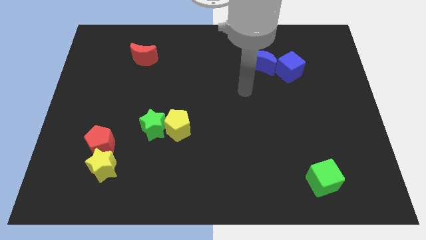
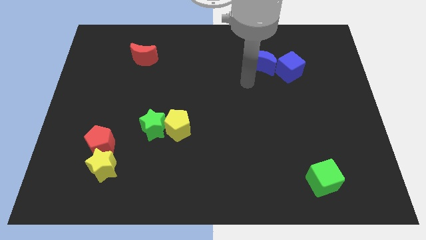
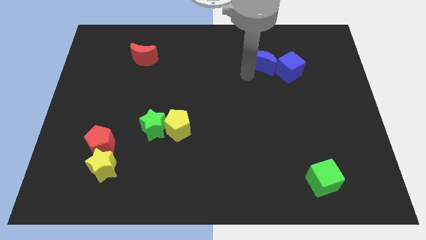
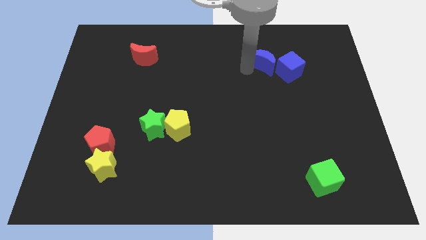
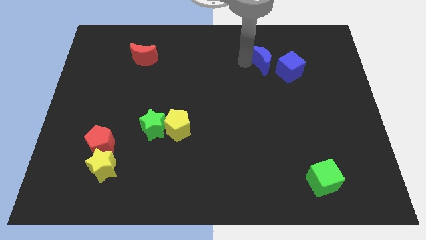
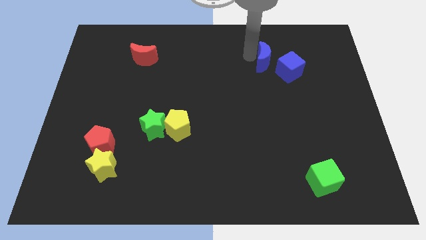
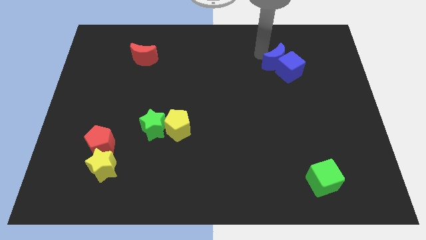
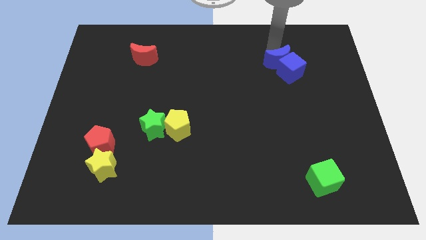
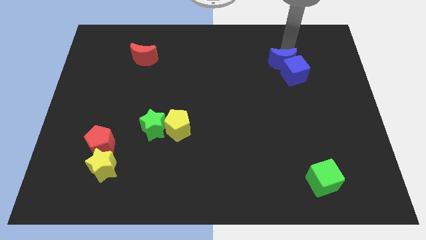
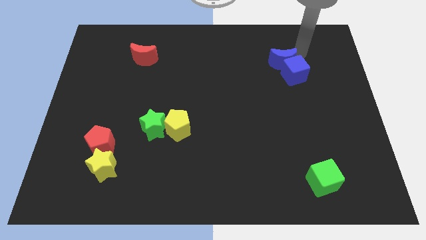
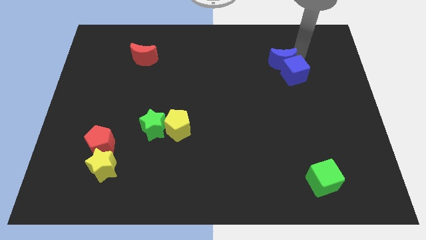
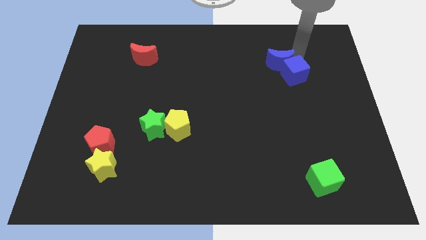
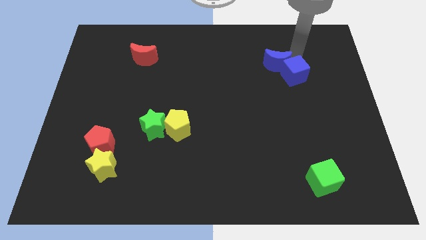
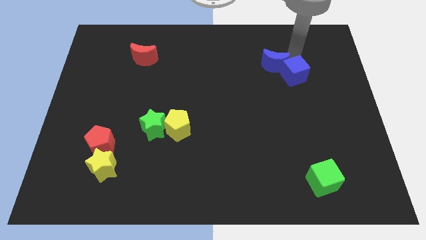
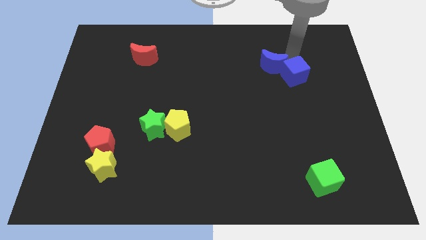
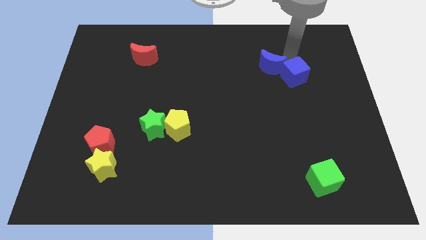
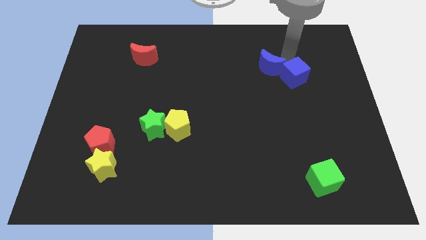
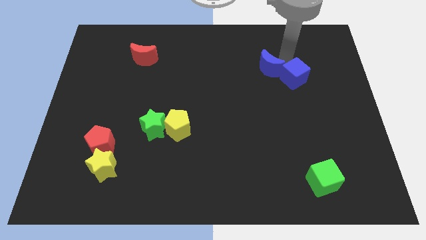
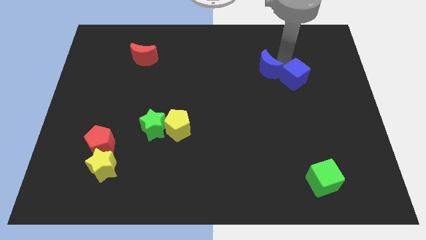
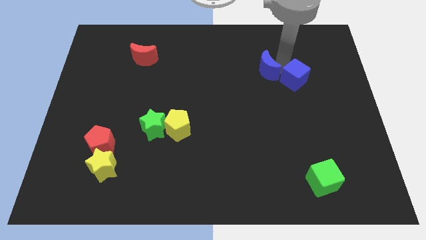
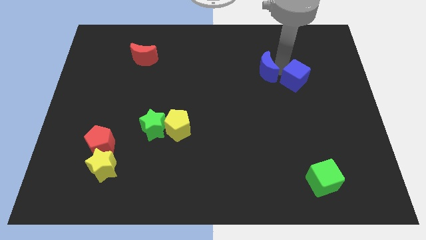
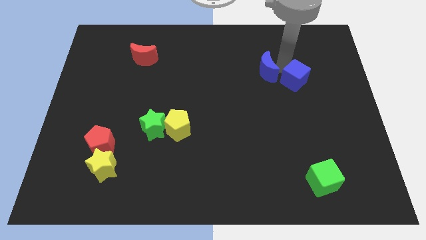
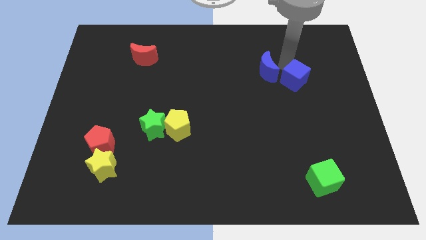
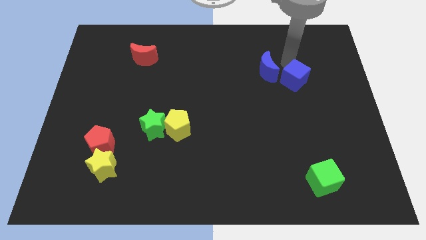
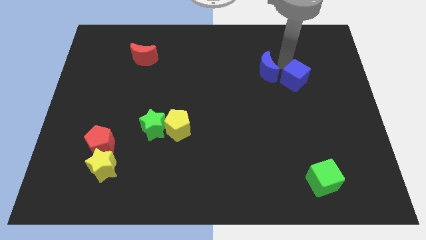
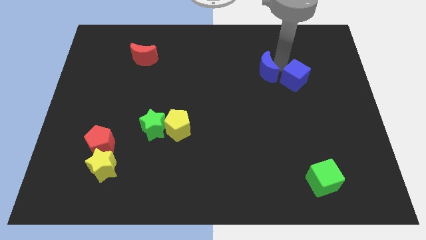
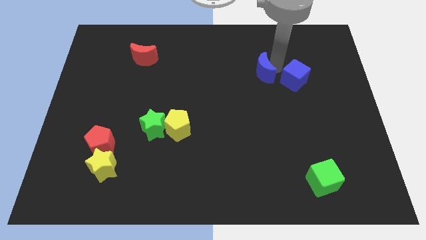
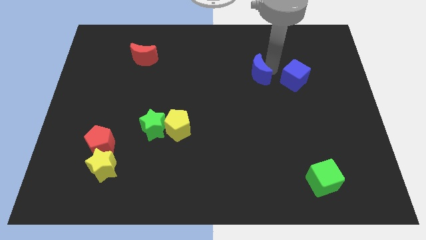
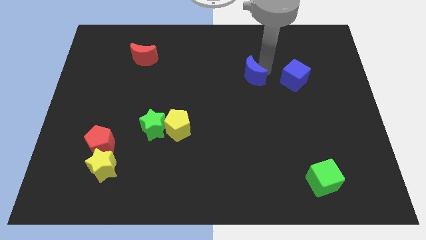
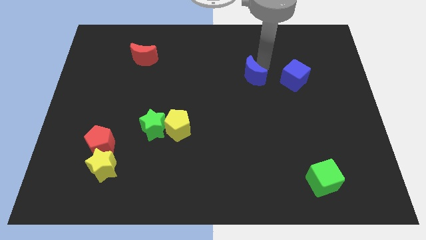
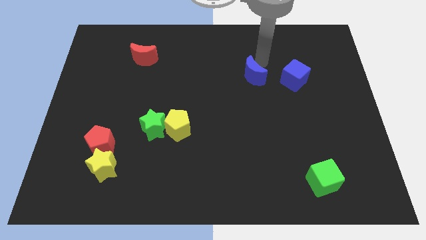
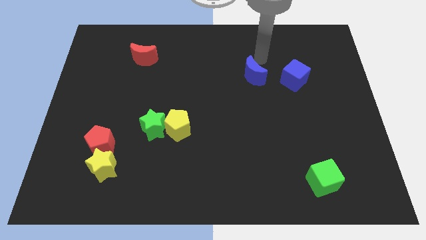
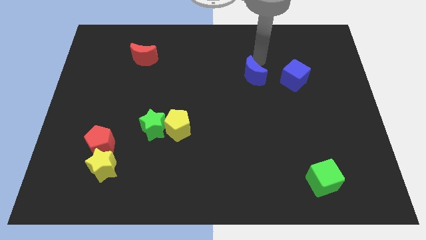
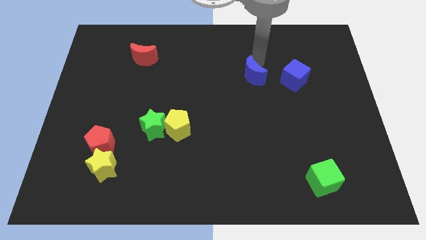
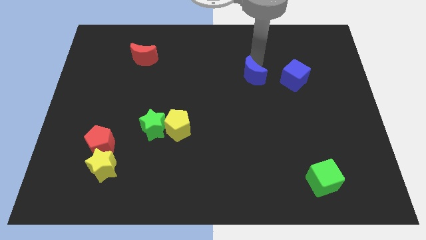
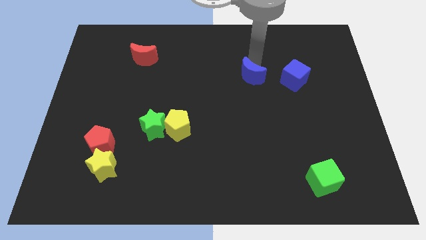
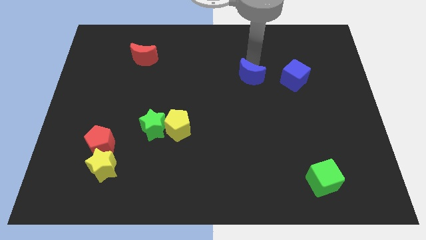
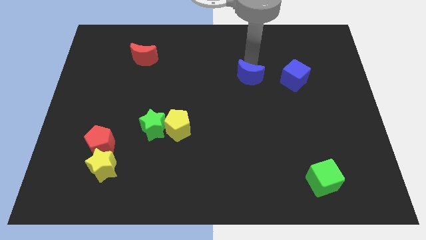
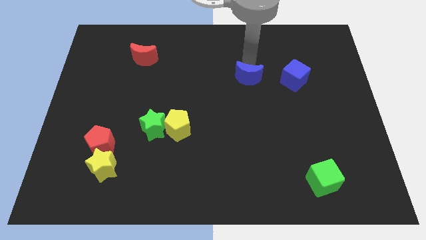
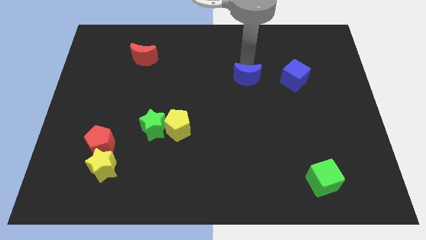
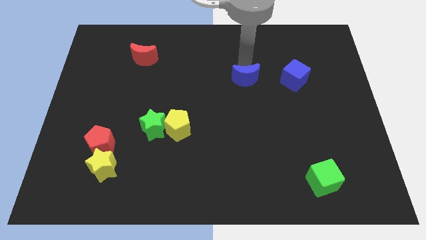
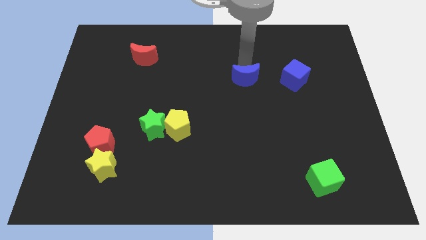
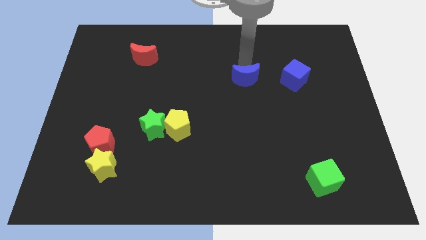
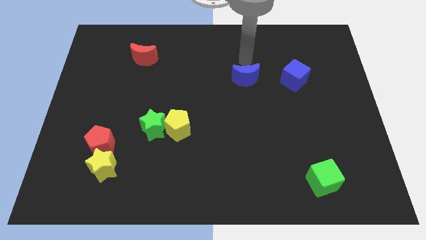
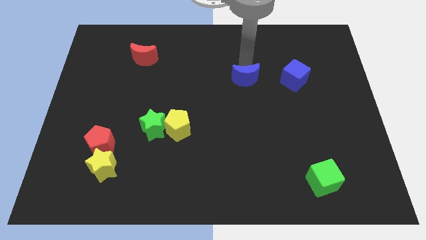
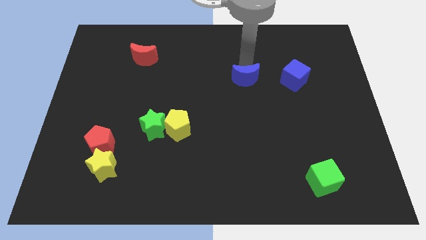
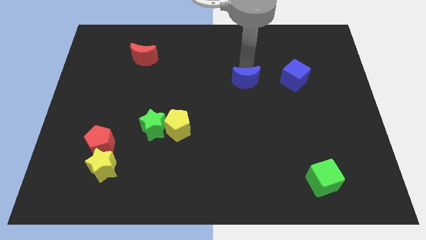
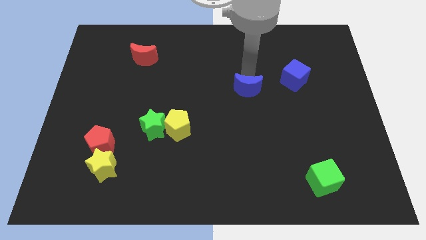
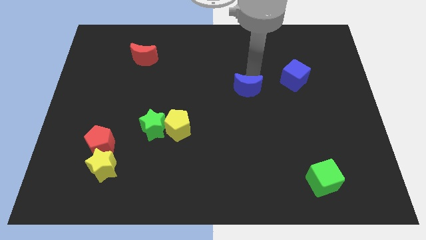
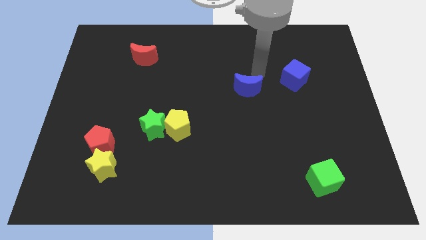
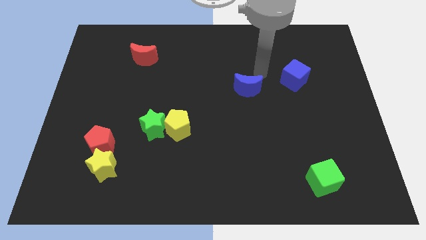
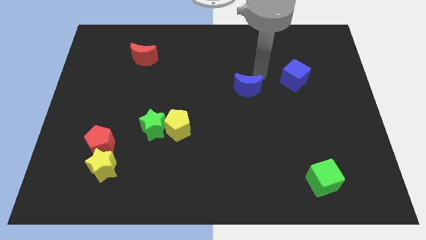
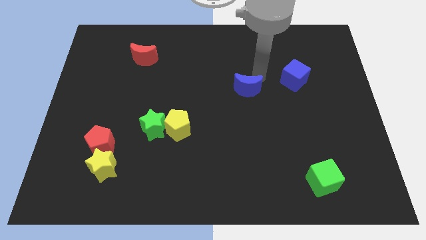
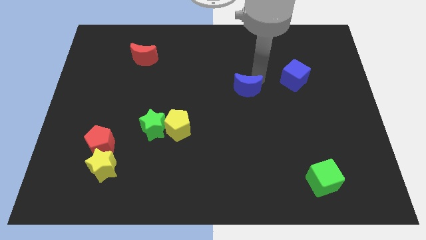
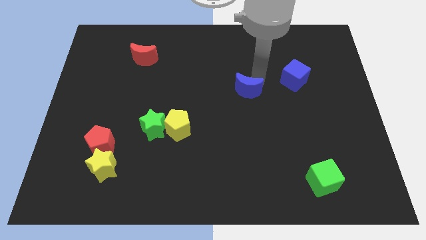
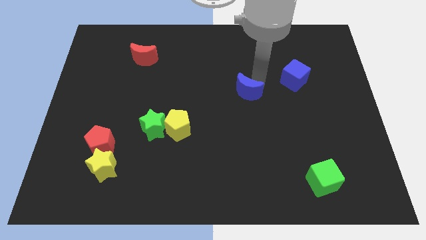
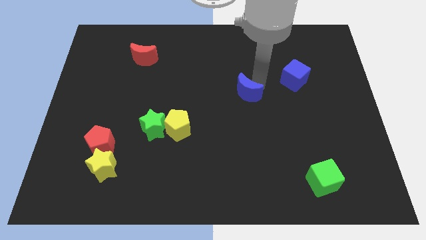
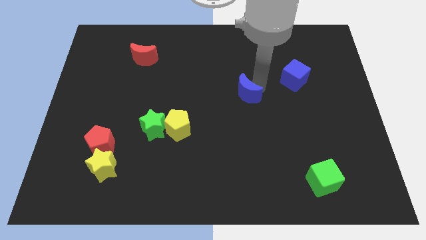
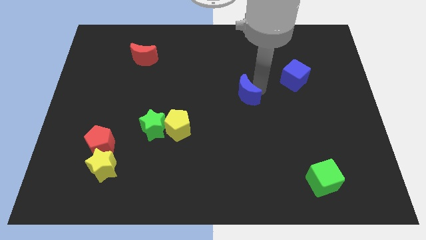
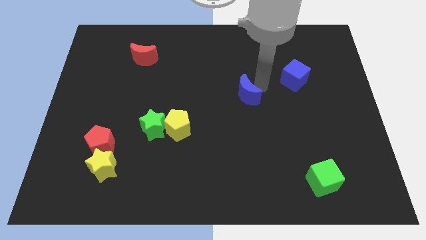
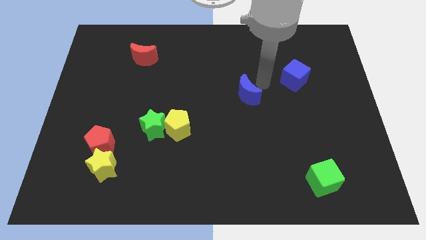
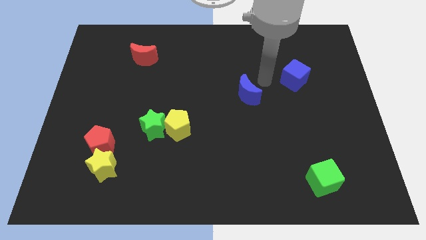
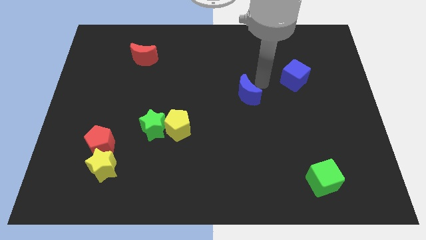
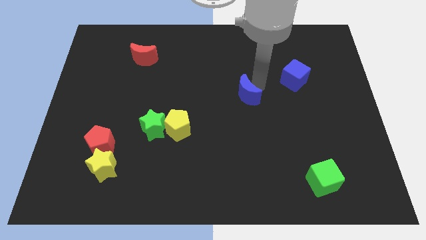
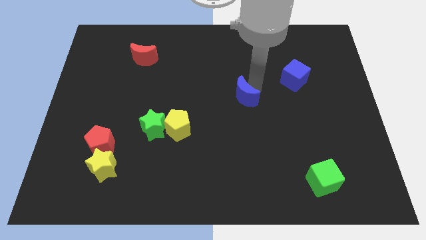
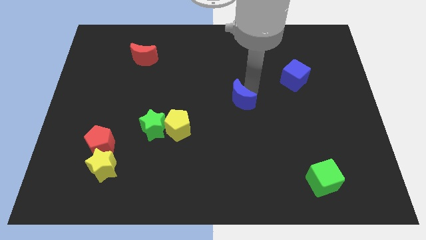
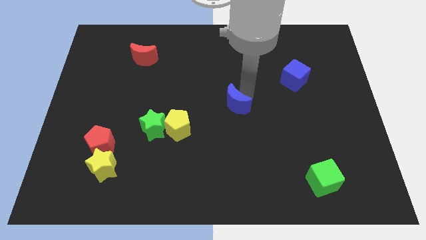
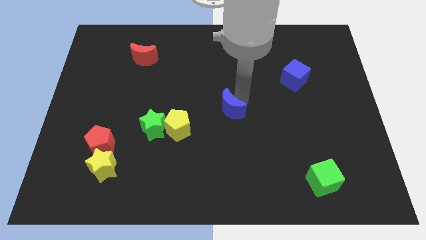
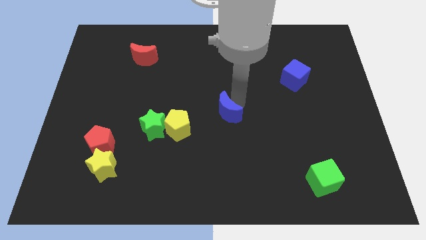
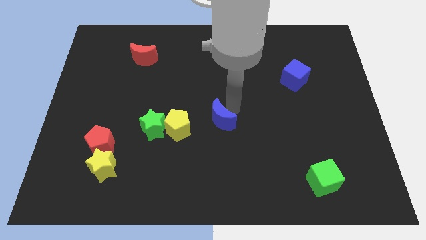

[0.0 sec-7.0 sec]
put the blue moon to the right side of the green star
